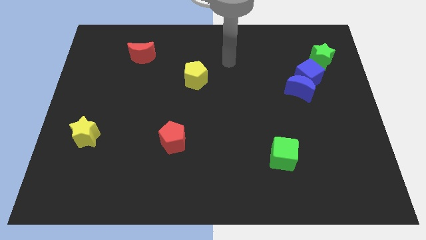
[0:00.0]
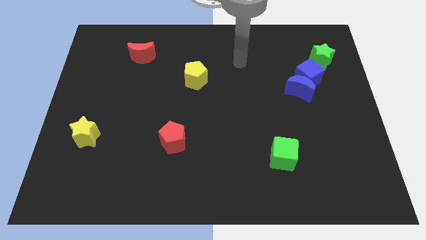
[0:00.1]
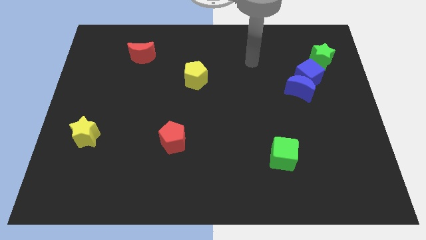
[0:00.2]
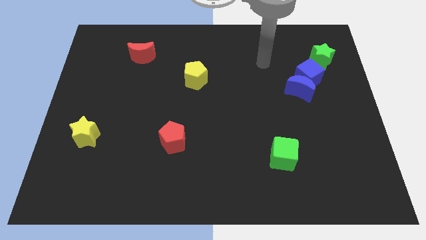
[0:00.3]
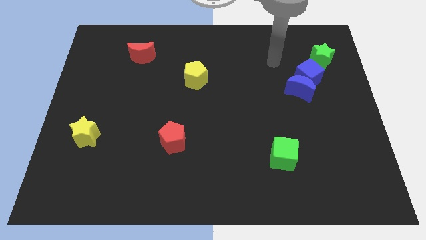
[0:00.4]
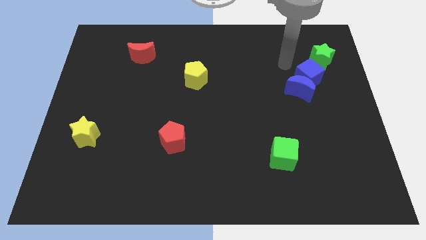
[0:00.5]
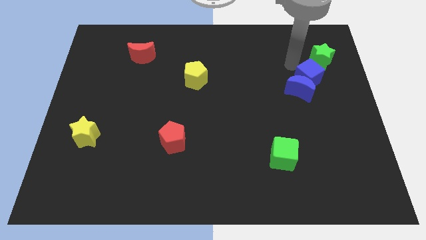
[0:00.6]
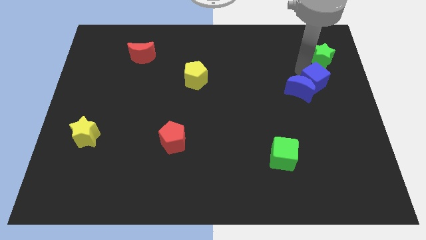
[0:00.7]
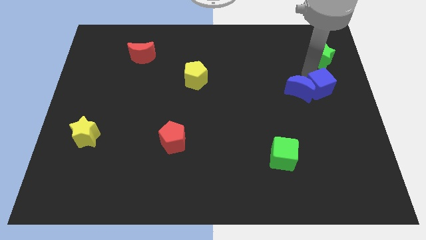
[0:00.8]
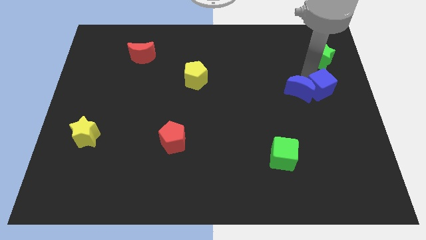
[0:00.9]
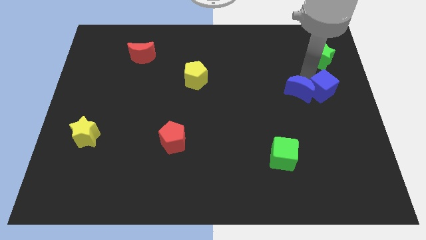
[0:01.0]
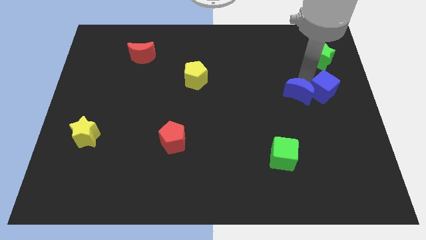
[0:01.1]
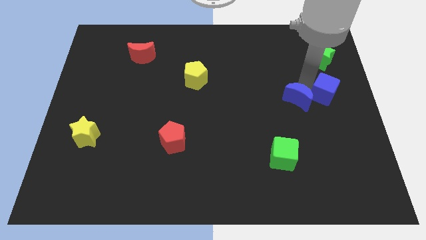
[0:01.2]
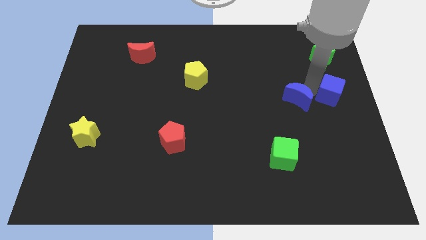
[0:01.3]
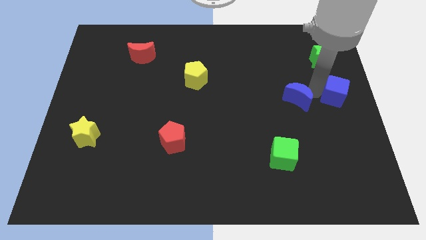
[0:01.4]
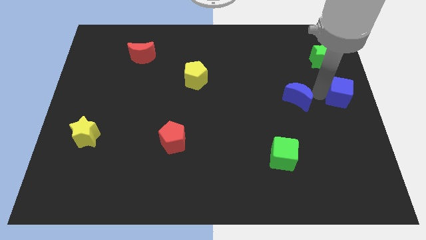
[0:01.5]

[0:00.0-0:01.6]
pull the blue moon apart from the blue cube

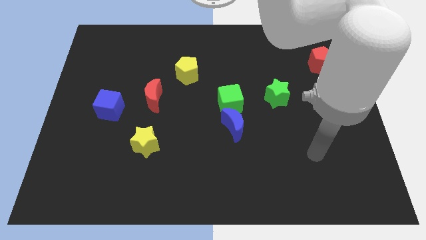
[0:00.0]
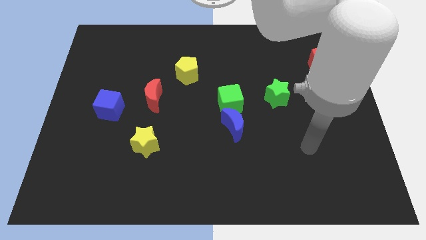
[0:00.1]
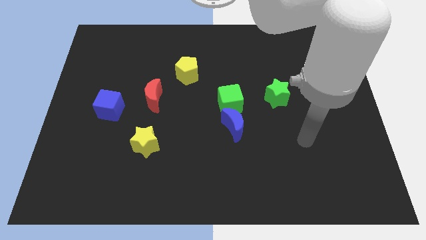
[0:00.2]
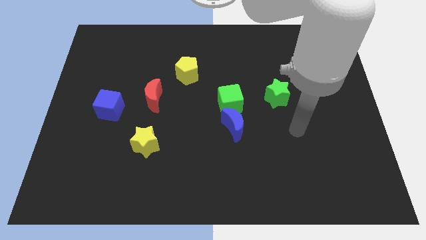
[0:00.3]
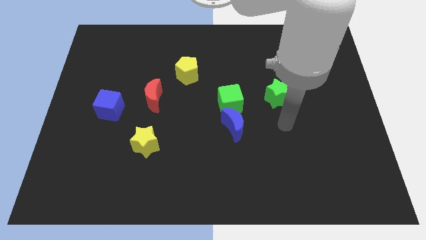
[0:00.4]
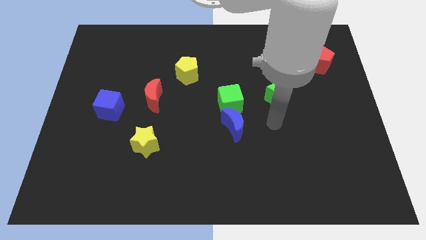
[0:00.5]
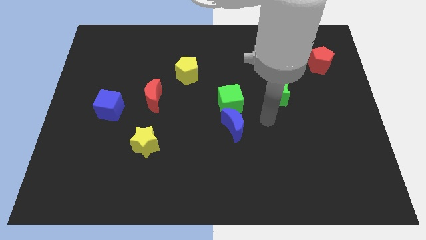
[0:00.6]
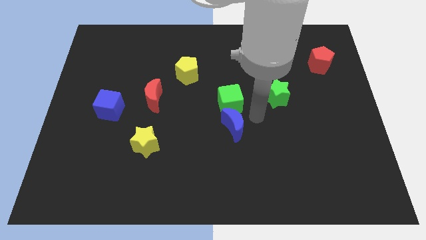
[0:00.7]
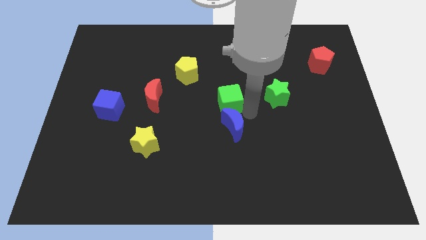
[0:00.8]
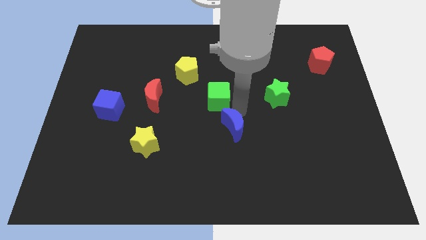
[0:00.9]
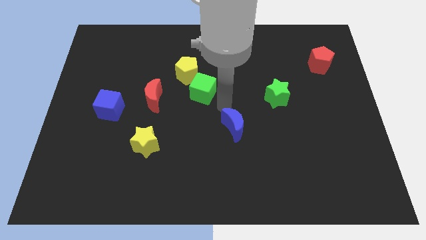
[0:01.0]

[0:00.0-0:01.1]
pull the blue moon apart from the green cube

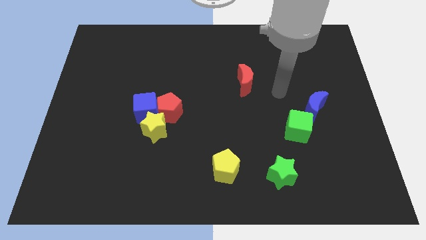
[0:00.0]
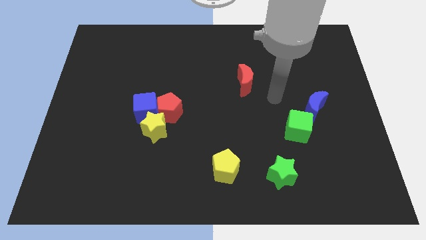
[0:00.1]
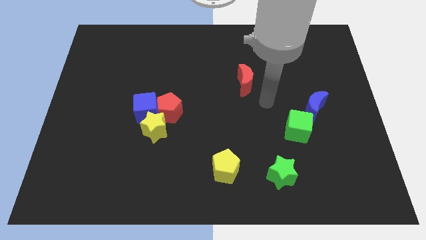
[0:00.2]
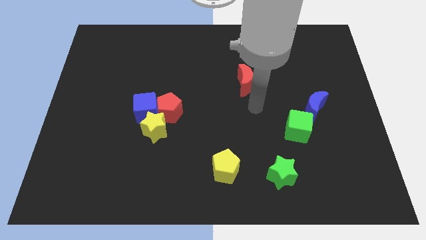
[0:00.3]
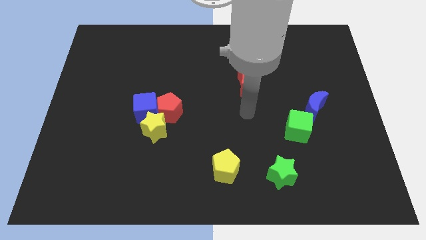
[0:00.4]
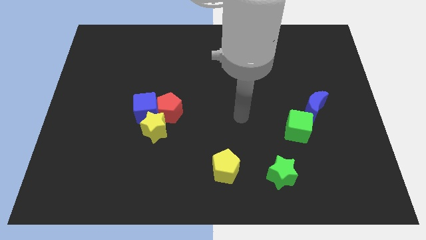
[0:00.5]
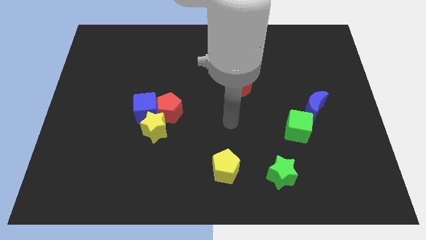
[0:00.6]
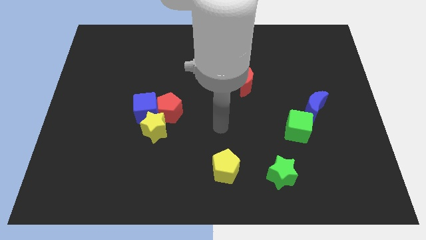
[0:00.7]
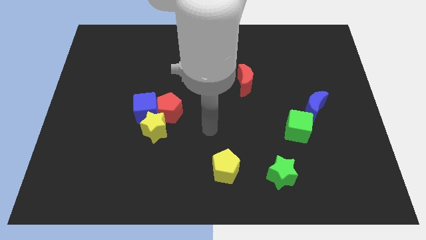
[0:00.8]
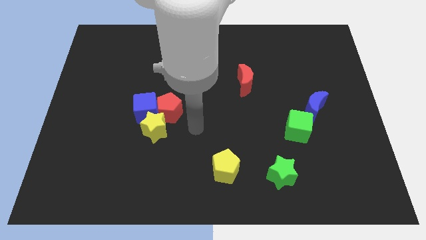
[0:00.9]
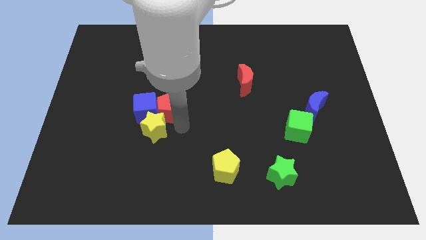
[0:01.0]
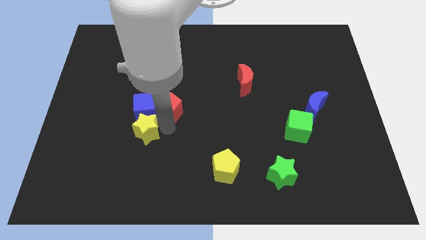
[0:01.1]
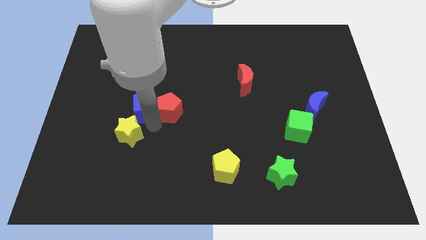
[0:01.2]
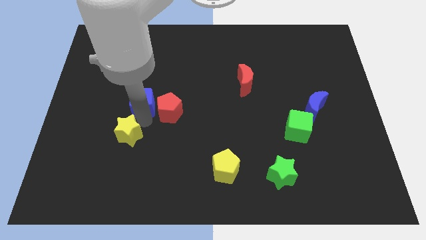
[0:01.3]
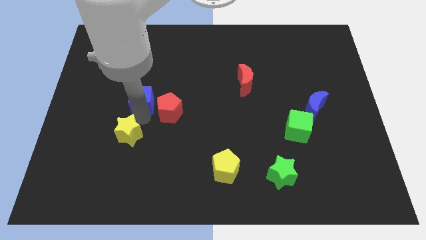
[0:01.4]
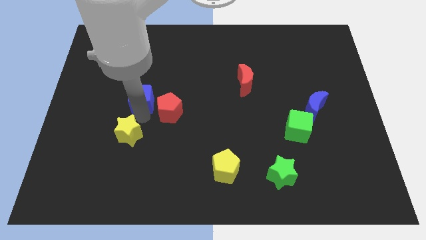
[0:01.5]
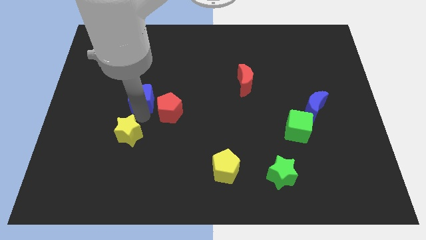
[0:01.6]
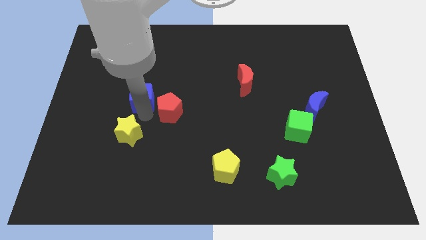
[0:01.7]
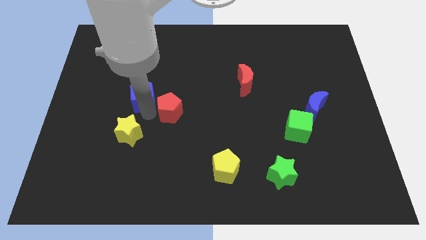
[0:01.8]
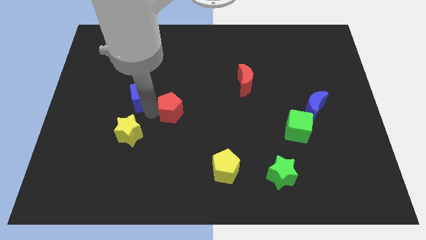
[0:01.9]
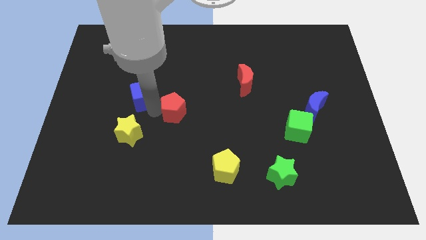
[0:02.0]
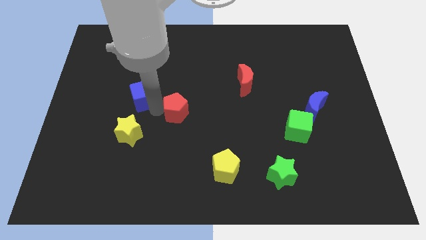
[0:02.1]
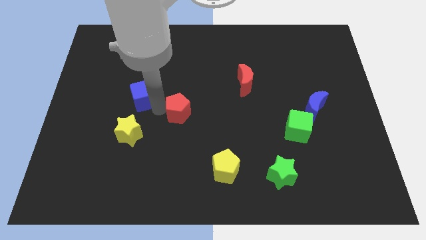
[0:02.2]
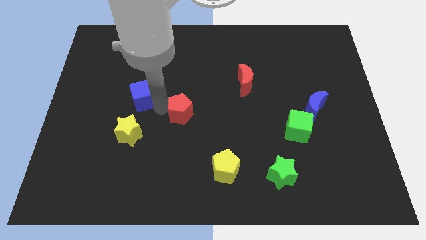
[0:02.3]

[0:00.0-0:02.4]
separate the red pentagon from the blue cube and yellow star

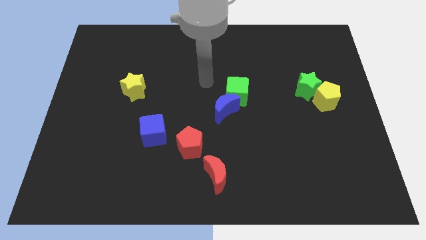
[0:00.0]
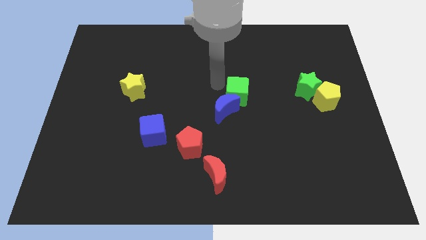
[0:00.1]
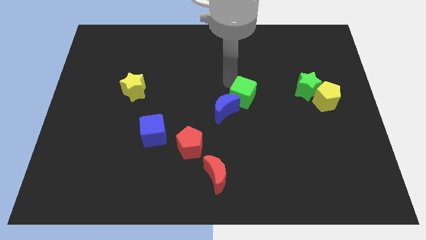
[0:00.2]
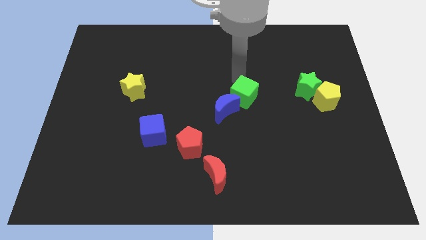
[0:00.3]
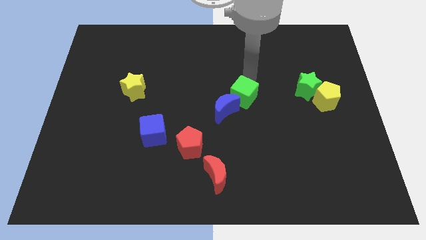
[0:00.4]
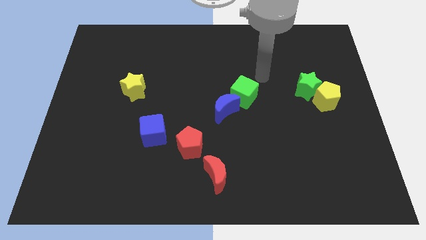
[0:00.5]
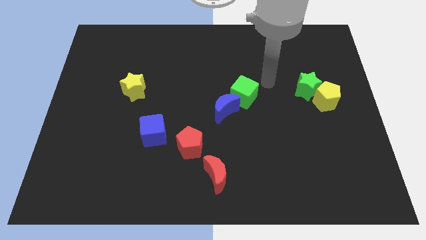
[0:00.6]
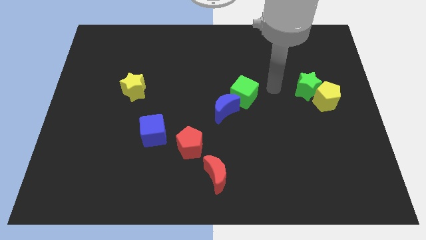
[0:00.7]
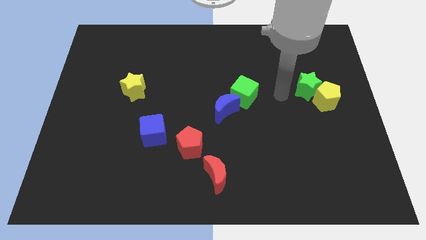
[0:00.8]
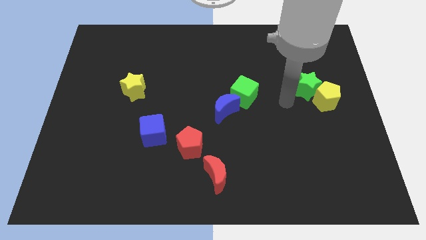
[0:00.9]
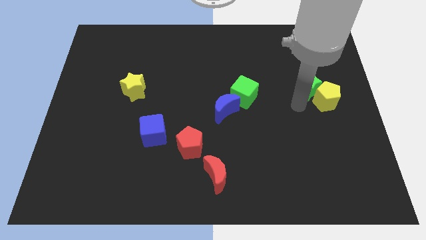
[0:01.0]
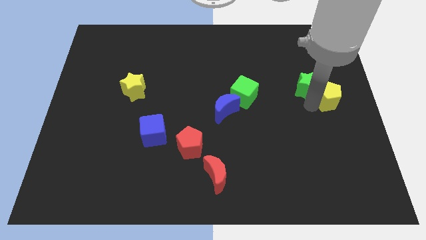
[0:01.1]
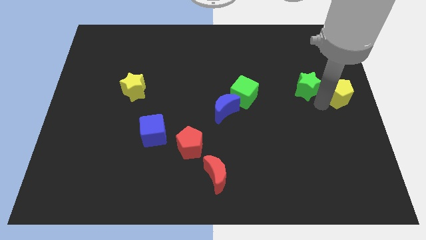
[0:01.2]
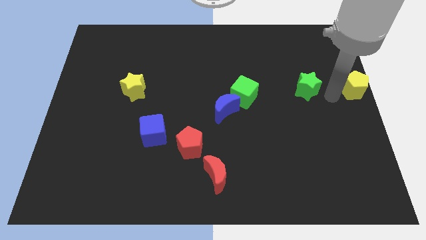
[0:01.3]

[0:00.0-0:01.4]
separate the green star from the yellow pentagon

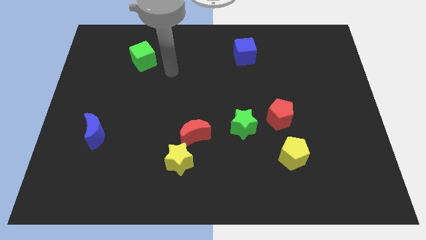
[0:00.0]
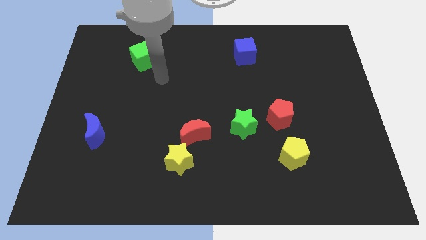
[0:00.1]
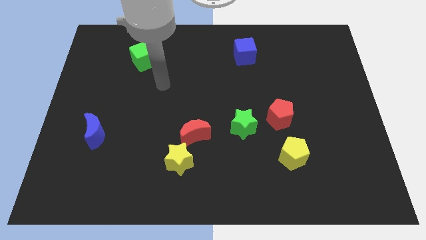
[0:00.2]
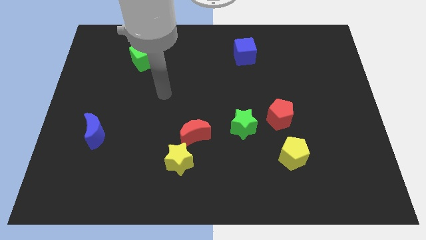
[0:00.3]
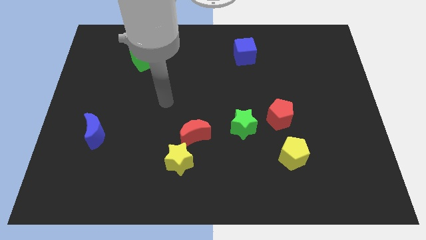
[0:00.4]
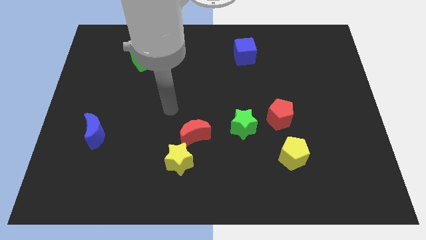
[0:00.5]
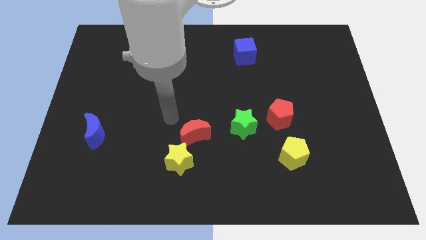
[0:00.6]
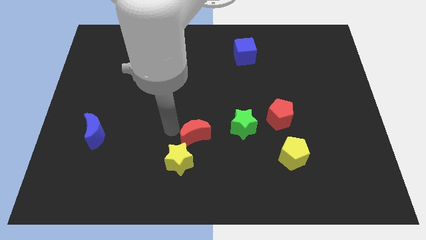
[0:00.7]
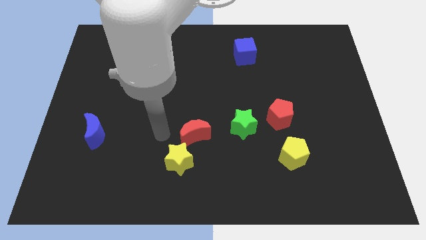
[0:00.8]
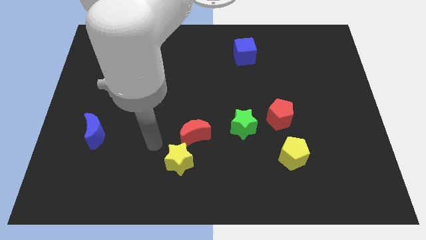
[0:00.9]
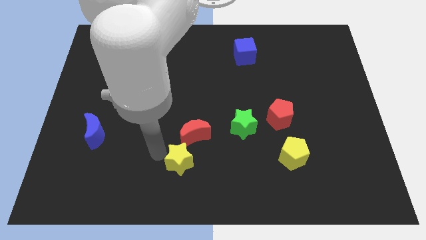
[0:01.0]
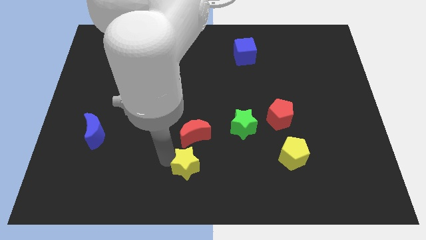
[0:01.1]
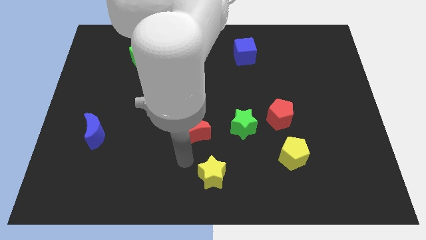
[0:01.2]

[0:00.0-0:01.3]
move the red moon away from the yellow star

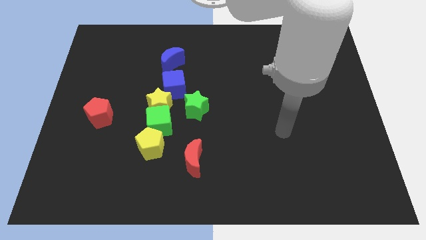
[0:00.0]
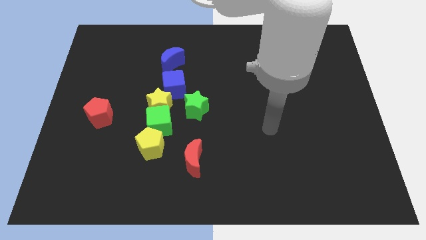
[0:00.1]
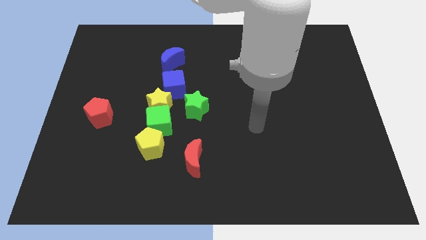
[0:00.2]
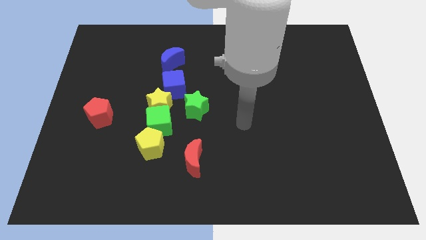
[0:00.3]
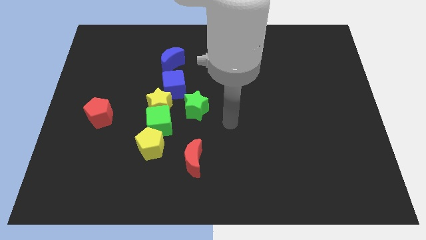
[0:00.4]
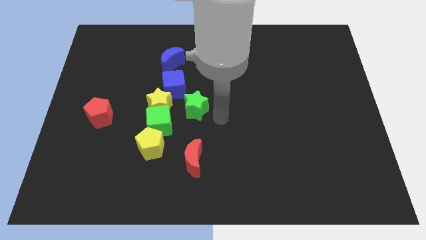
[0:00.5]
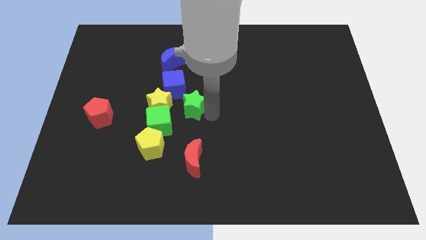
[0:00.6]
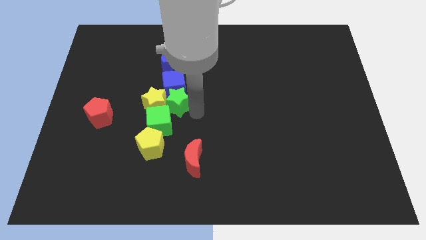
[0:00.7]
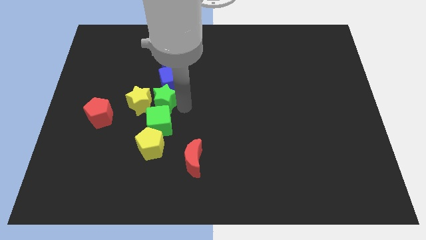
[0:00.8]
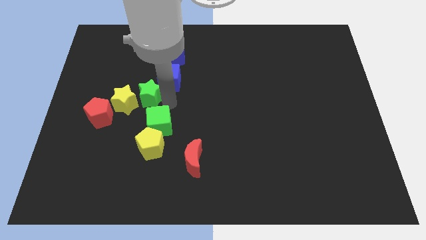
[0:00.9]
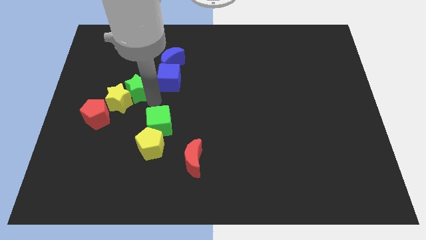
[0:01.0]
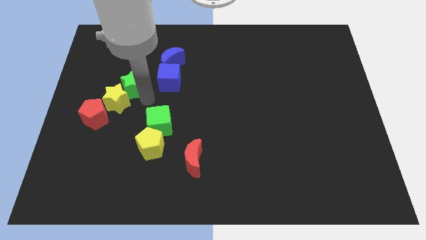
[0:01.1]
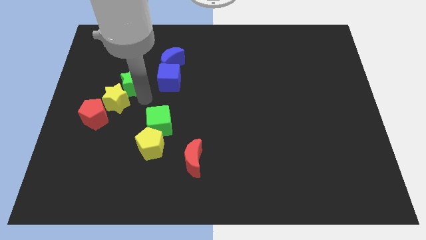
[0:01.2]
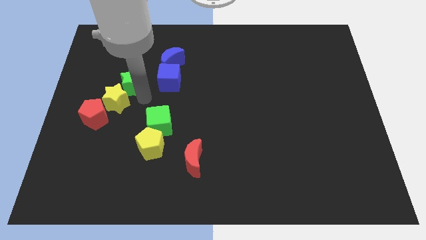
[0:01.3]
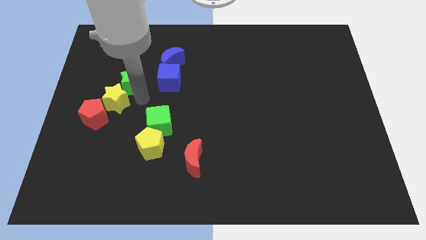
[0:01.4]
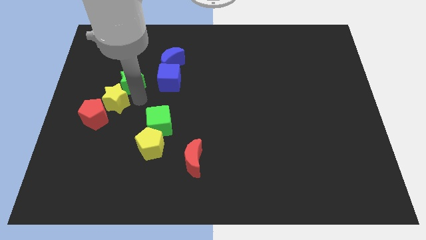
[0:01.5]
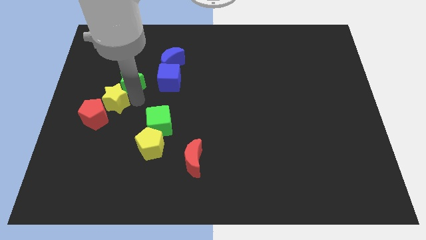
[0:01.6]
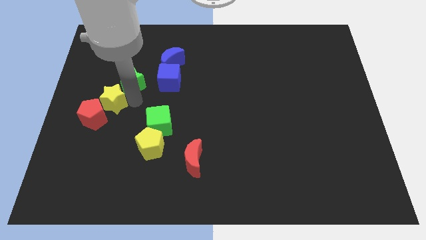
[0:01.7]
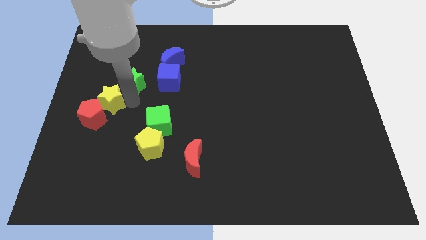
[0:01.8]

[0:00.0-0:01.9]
pull the yellow star apart from the green cube, blue cube, and green star
